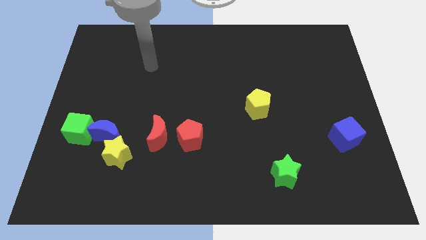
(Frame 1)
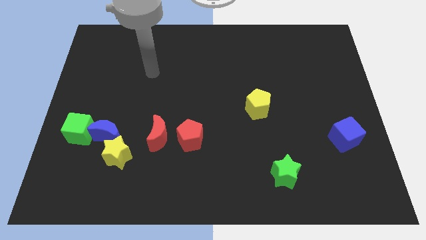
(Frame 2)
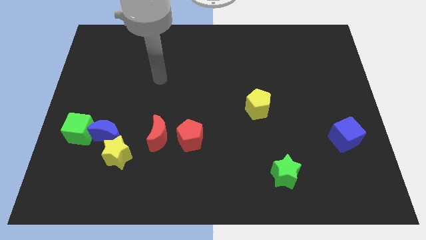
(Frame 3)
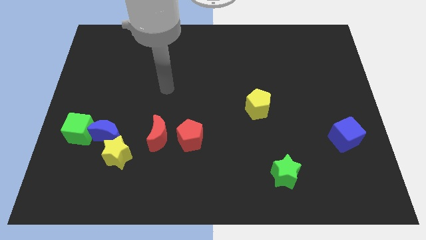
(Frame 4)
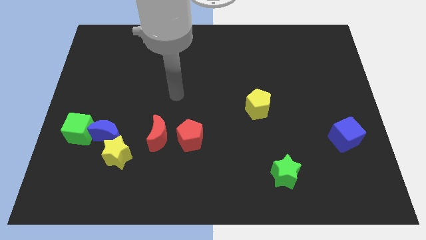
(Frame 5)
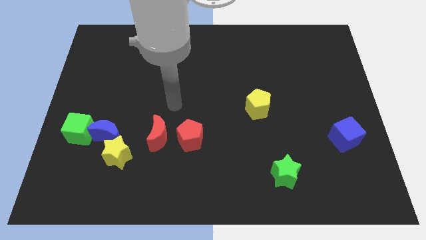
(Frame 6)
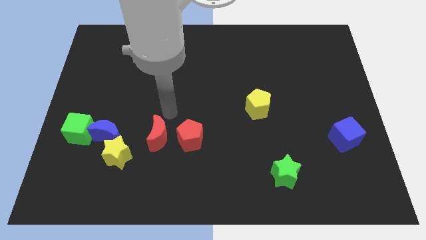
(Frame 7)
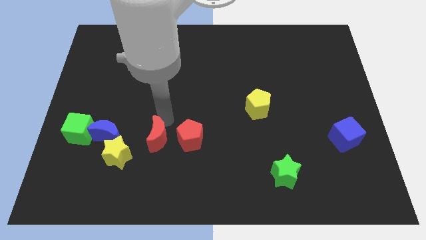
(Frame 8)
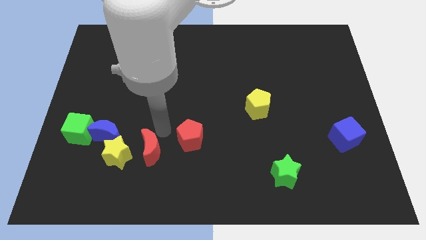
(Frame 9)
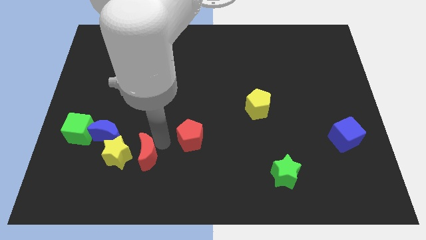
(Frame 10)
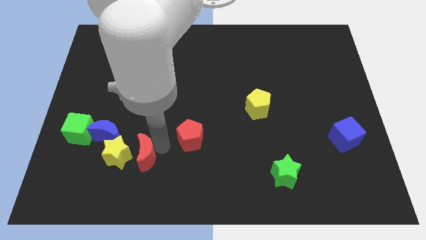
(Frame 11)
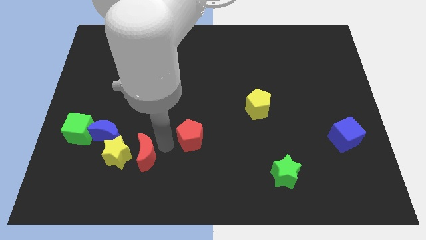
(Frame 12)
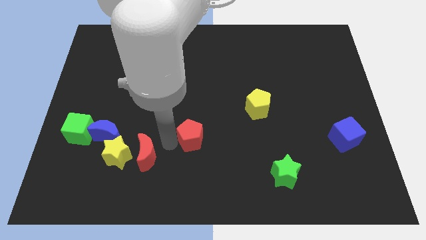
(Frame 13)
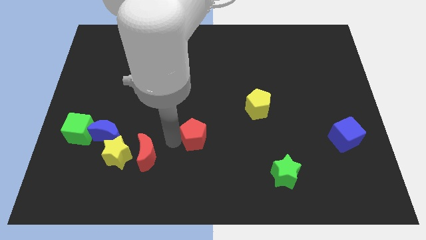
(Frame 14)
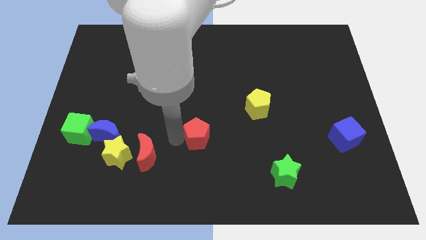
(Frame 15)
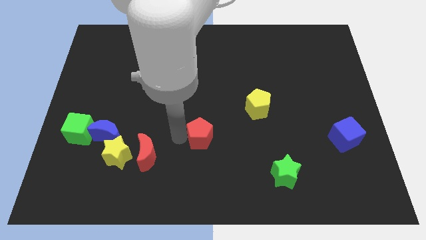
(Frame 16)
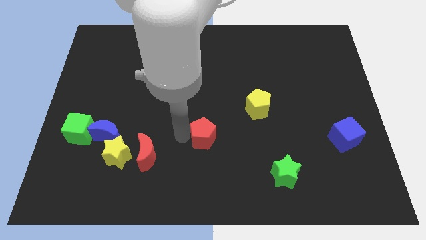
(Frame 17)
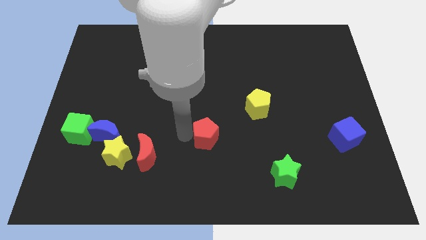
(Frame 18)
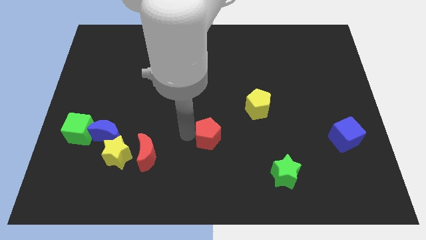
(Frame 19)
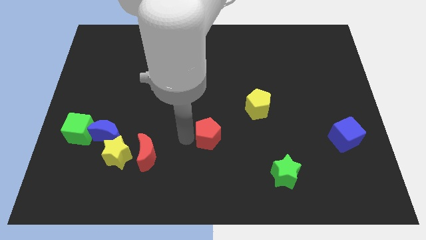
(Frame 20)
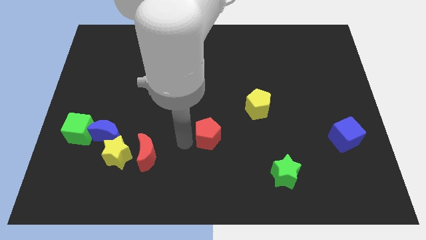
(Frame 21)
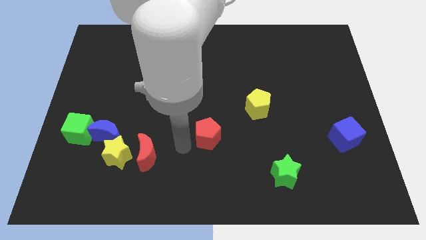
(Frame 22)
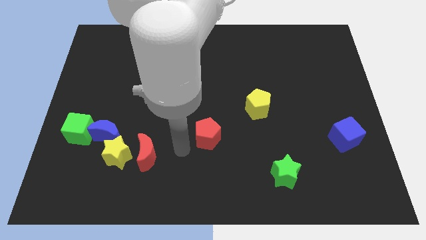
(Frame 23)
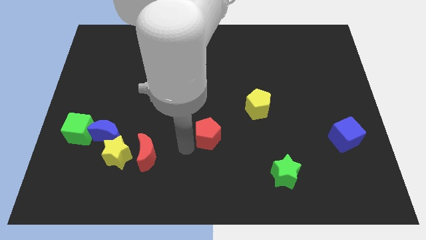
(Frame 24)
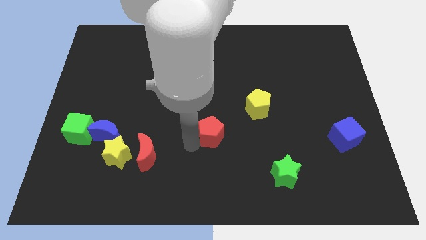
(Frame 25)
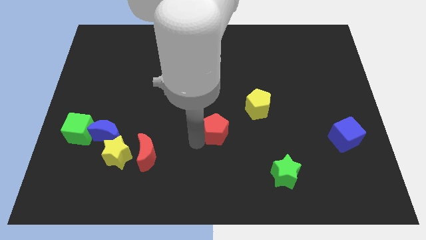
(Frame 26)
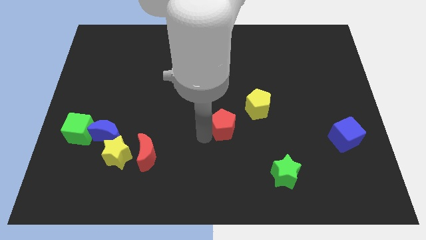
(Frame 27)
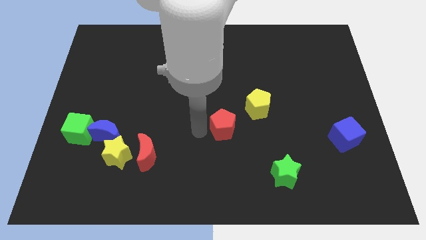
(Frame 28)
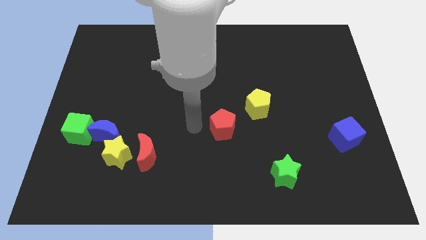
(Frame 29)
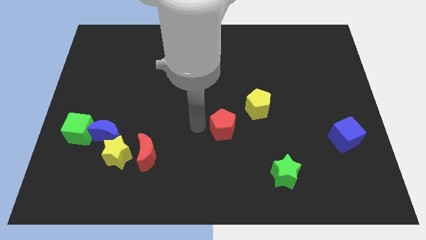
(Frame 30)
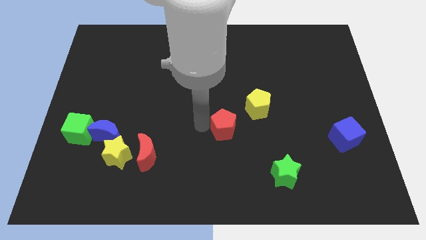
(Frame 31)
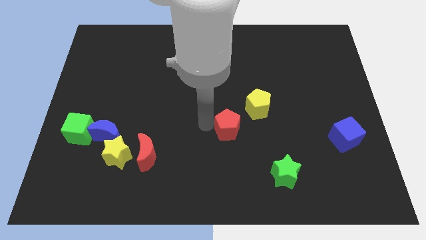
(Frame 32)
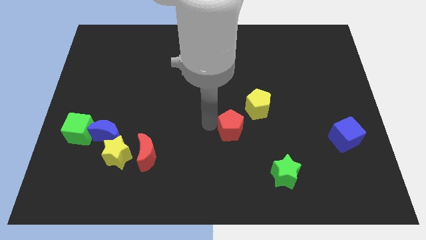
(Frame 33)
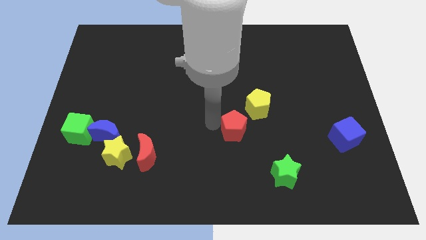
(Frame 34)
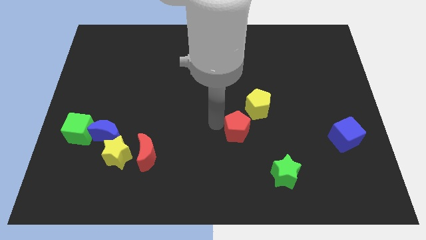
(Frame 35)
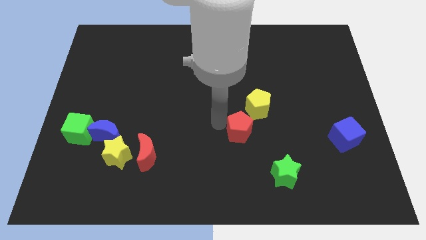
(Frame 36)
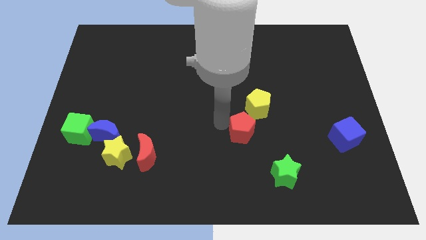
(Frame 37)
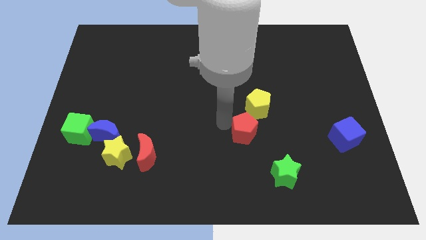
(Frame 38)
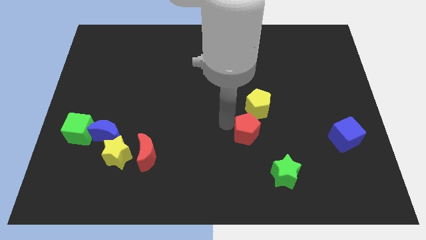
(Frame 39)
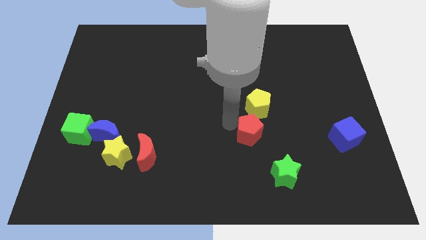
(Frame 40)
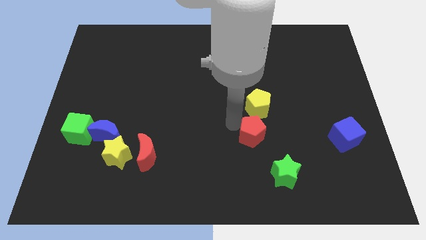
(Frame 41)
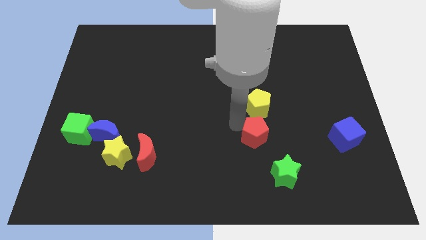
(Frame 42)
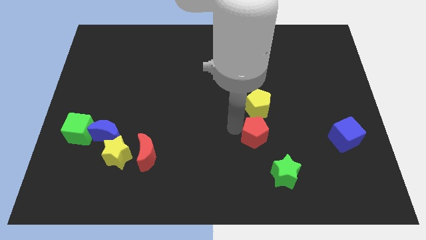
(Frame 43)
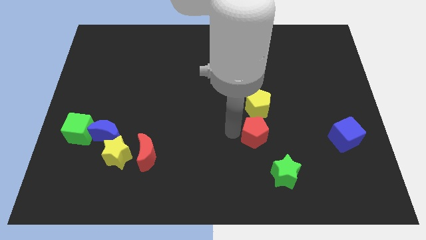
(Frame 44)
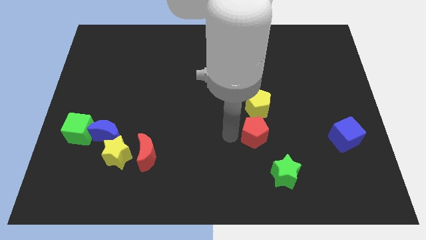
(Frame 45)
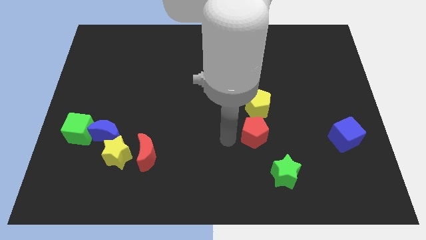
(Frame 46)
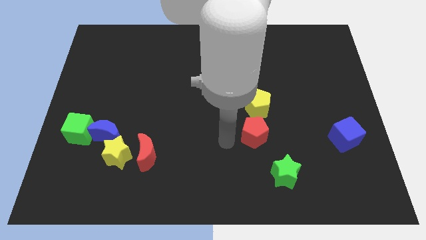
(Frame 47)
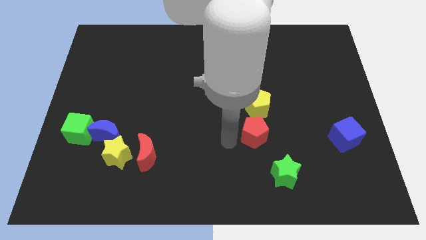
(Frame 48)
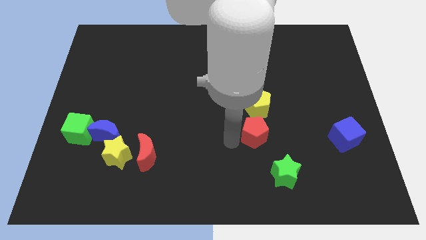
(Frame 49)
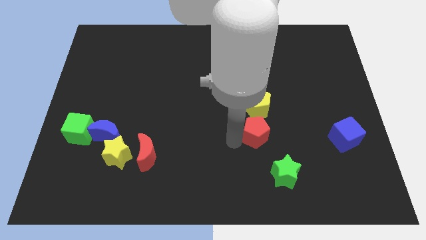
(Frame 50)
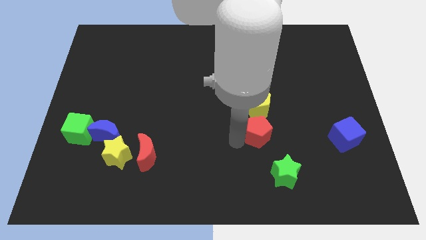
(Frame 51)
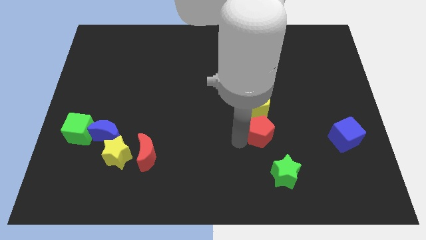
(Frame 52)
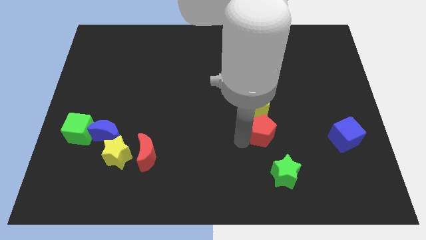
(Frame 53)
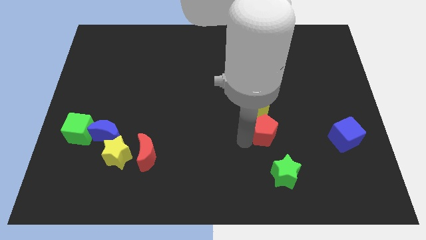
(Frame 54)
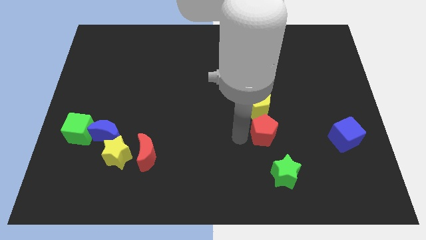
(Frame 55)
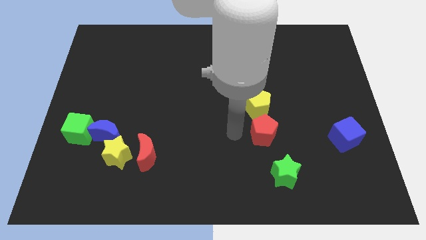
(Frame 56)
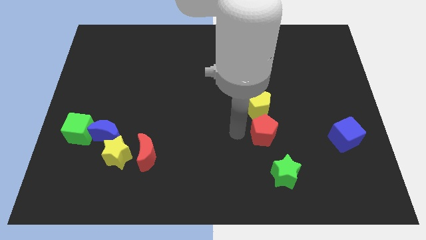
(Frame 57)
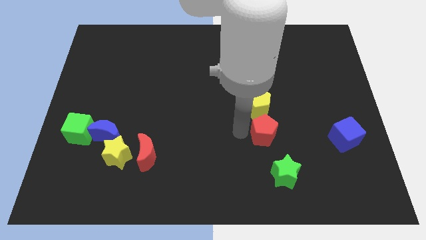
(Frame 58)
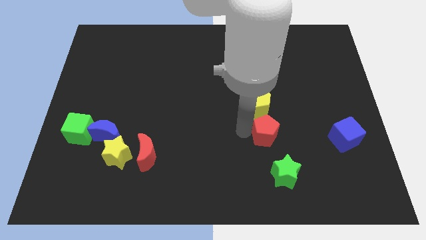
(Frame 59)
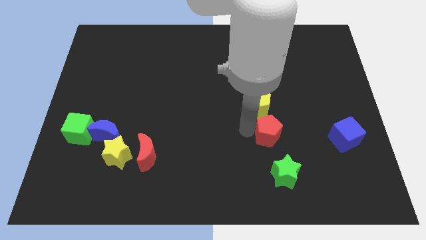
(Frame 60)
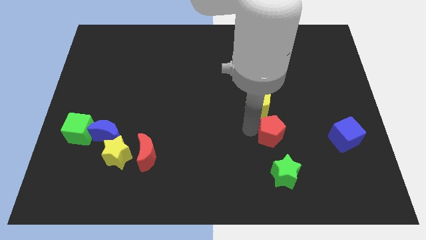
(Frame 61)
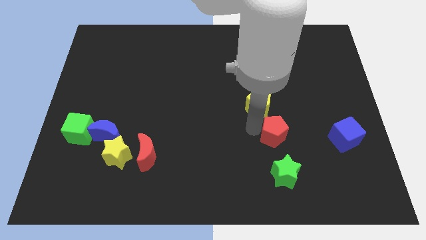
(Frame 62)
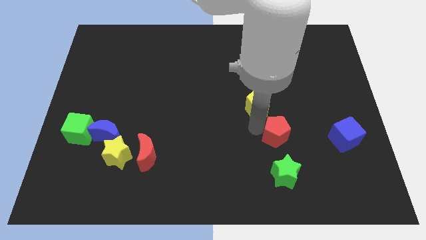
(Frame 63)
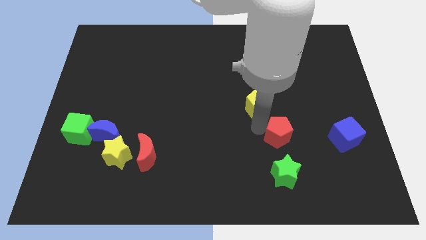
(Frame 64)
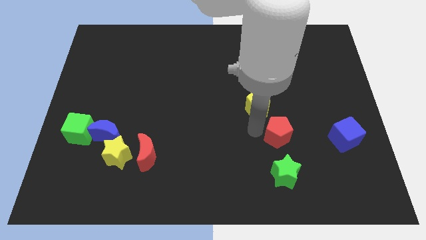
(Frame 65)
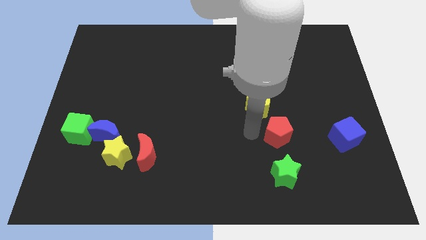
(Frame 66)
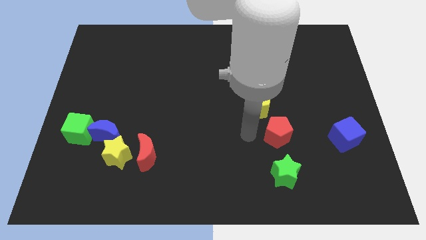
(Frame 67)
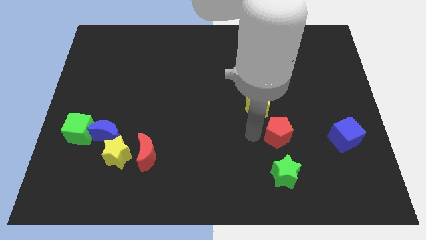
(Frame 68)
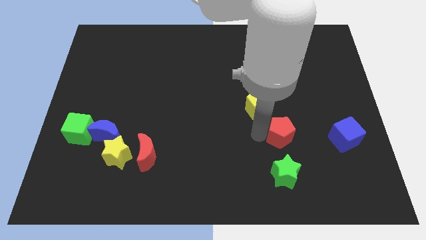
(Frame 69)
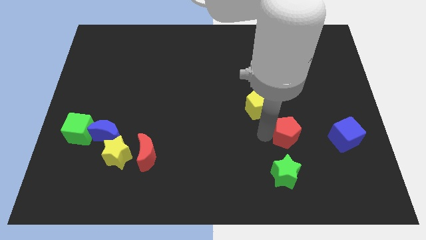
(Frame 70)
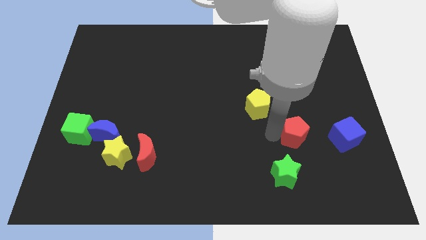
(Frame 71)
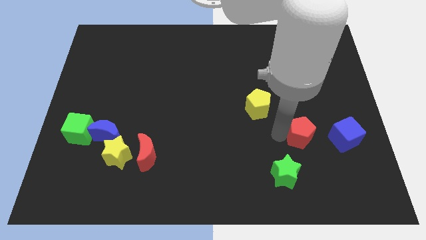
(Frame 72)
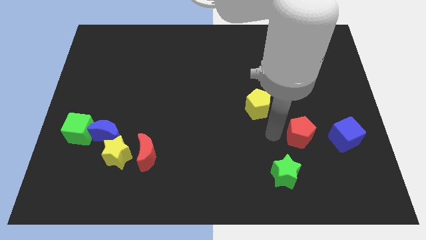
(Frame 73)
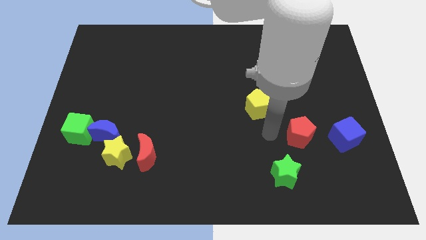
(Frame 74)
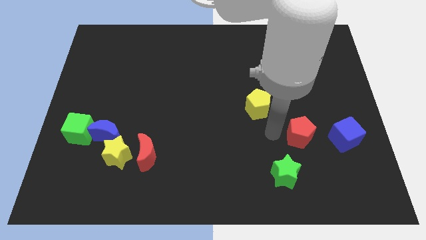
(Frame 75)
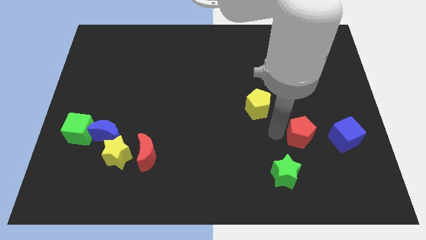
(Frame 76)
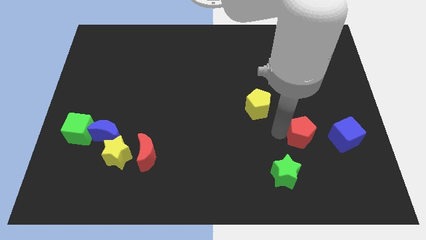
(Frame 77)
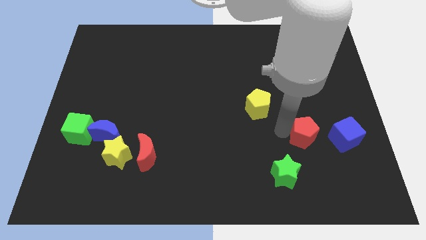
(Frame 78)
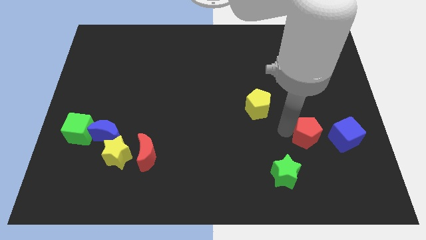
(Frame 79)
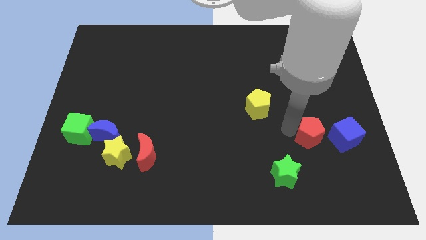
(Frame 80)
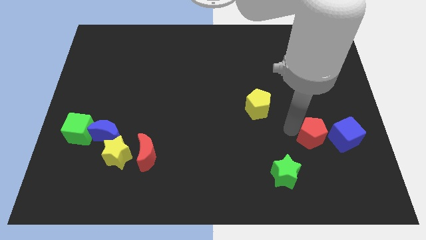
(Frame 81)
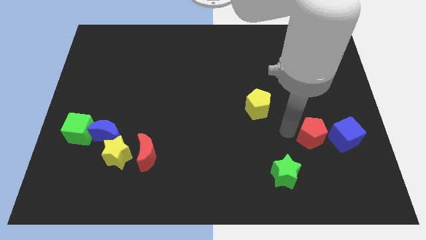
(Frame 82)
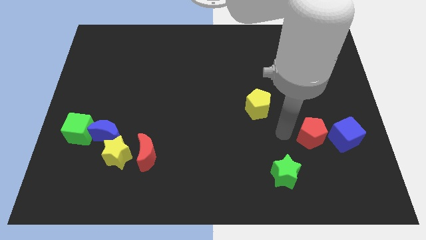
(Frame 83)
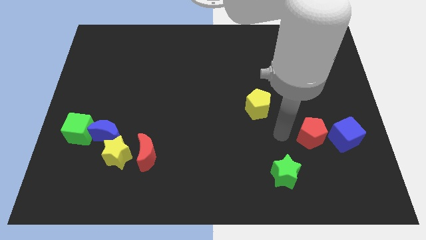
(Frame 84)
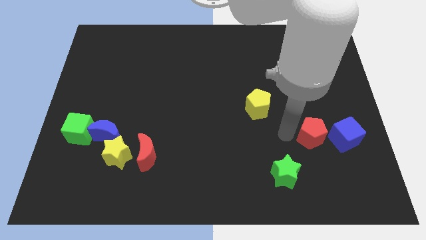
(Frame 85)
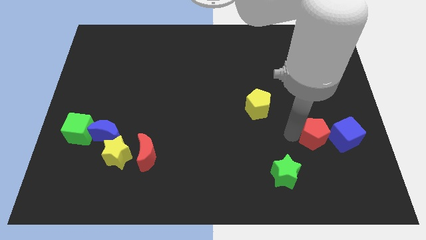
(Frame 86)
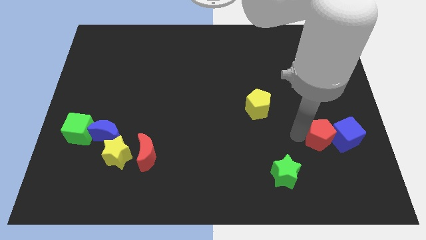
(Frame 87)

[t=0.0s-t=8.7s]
slide the red pentagon next to the blue cube
